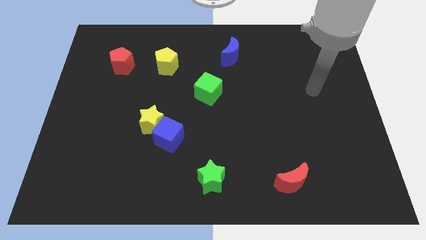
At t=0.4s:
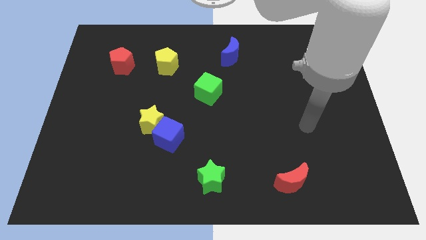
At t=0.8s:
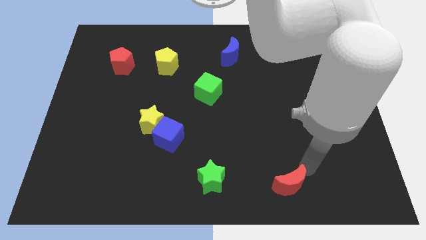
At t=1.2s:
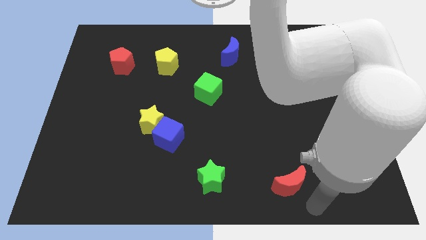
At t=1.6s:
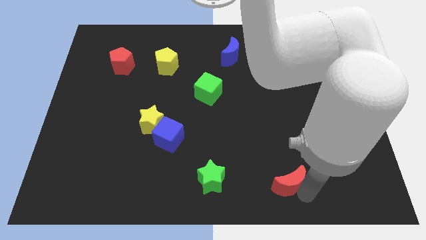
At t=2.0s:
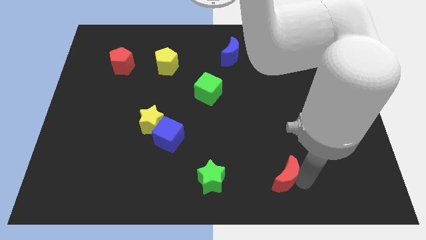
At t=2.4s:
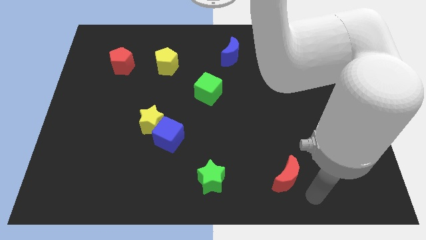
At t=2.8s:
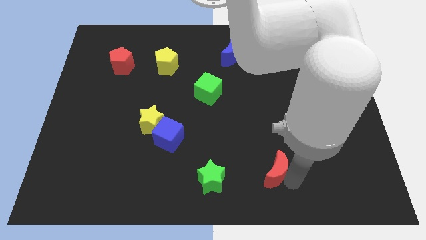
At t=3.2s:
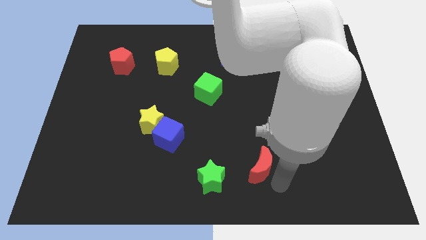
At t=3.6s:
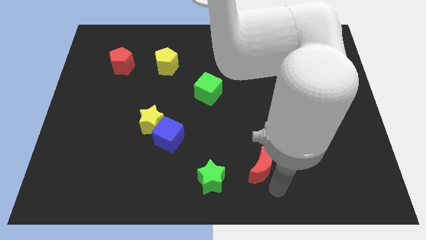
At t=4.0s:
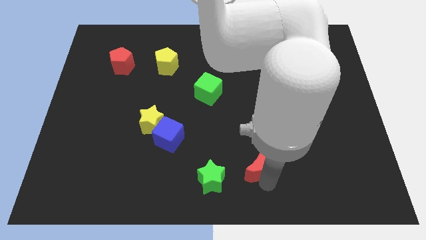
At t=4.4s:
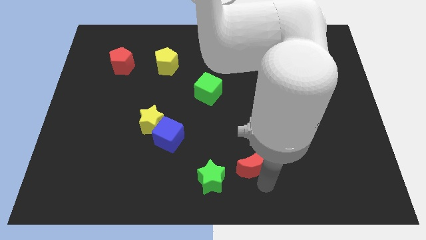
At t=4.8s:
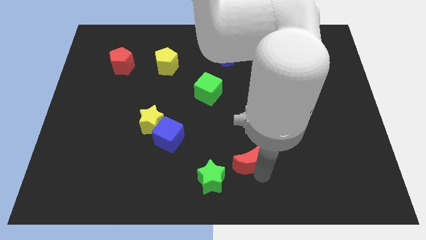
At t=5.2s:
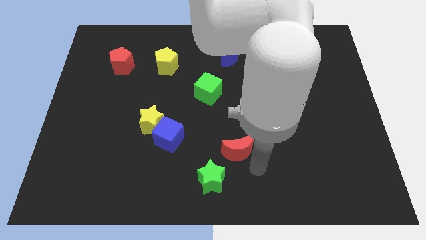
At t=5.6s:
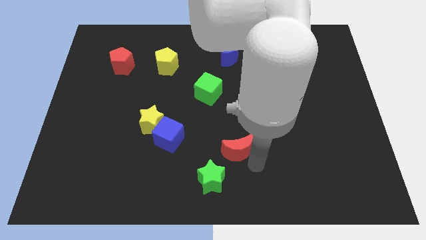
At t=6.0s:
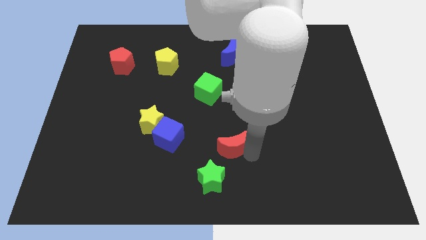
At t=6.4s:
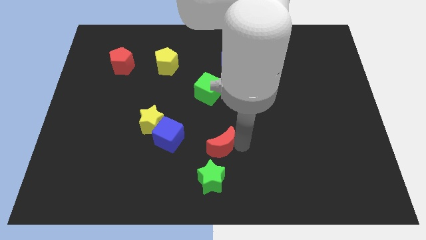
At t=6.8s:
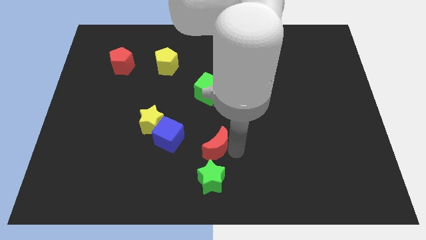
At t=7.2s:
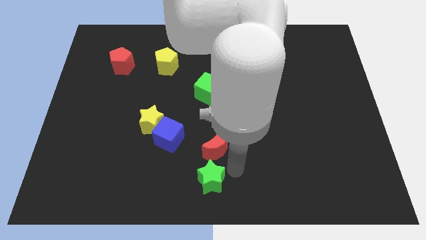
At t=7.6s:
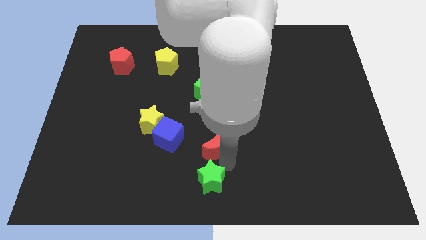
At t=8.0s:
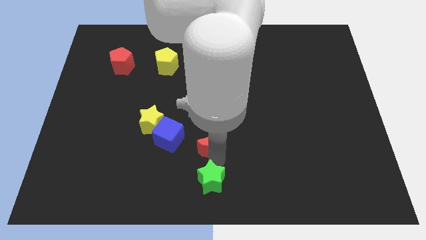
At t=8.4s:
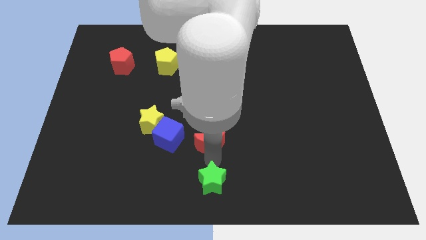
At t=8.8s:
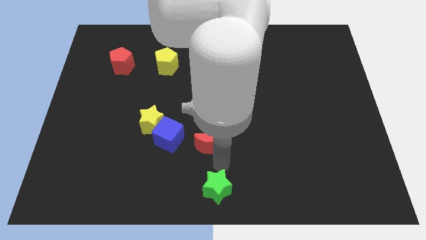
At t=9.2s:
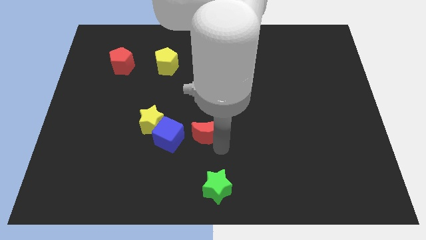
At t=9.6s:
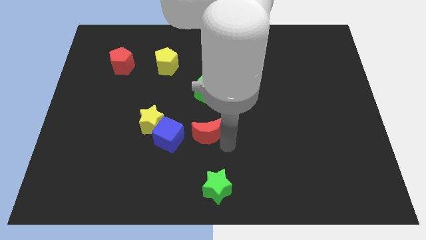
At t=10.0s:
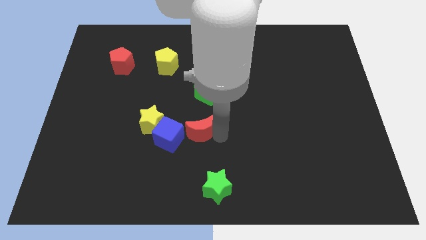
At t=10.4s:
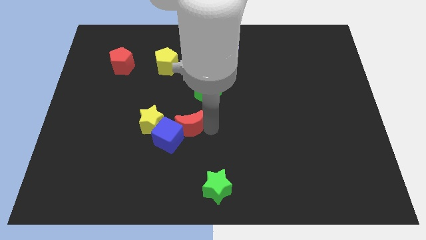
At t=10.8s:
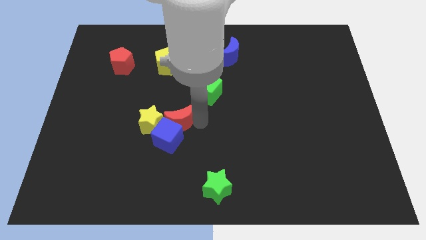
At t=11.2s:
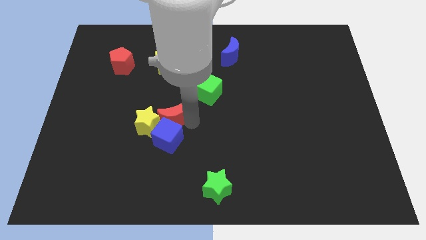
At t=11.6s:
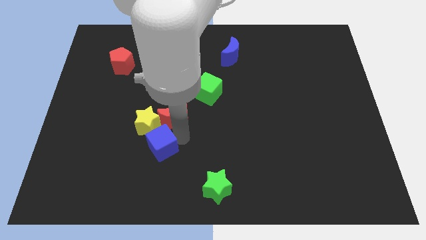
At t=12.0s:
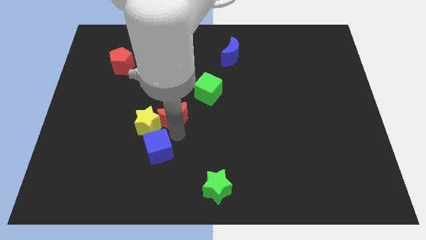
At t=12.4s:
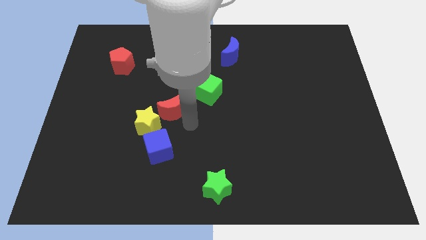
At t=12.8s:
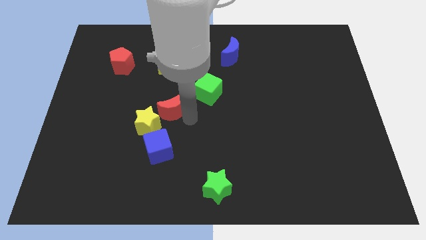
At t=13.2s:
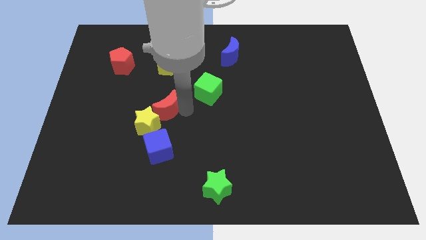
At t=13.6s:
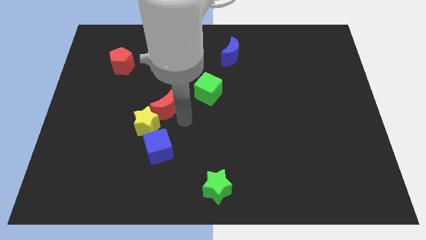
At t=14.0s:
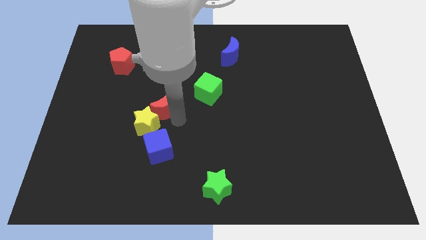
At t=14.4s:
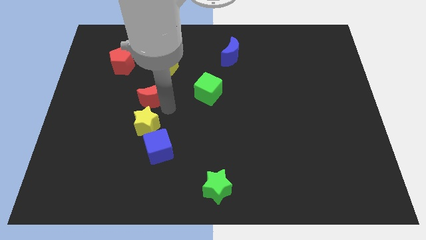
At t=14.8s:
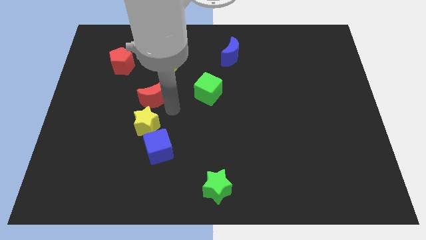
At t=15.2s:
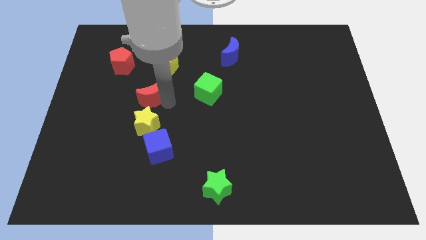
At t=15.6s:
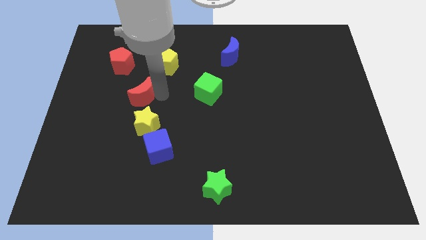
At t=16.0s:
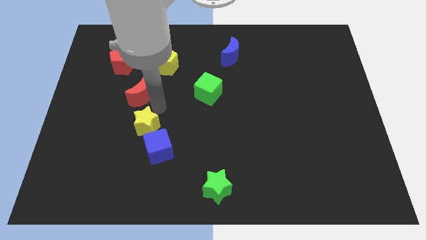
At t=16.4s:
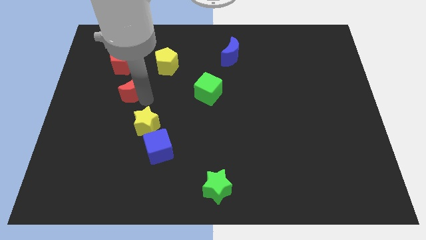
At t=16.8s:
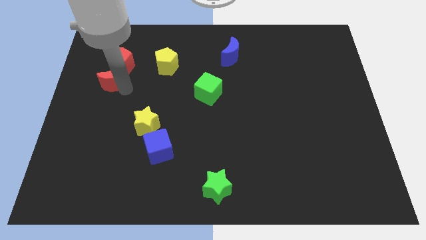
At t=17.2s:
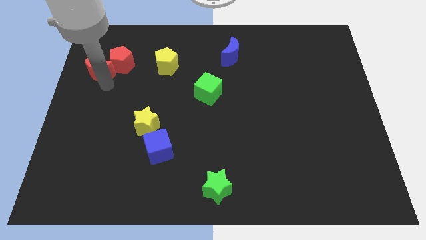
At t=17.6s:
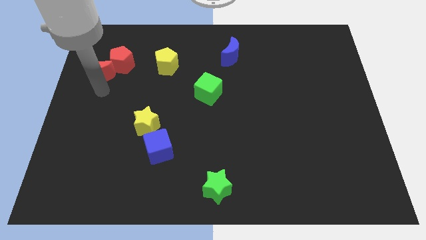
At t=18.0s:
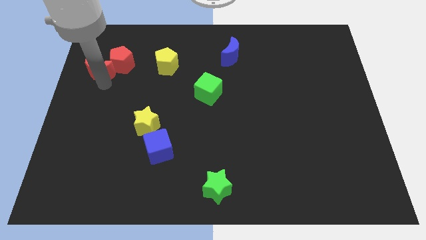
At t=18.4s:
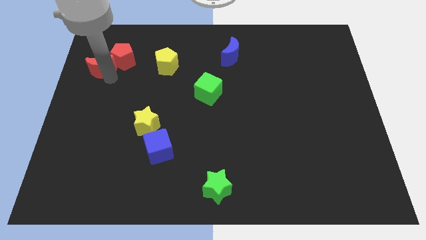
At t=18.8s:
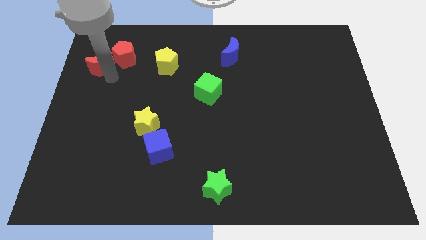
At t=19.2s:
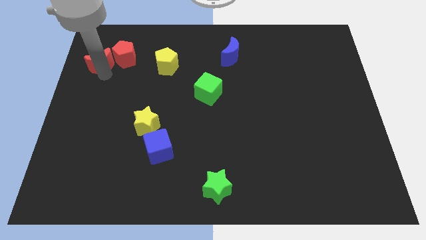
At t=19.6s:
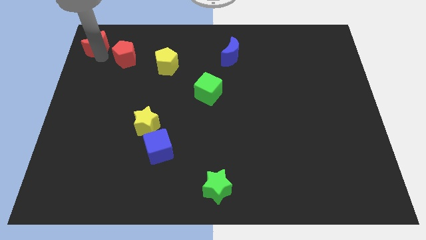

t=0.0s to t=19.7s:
move the red moon to the top left corner

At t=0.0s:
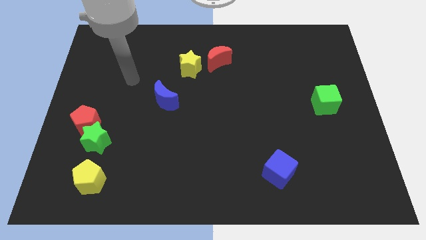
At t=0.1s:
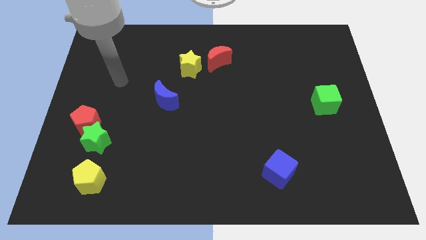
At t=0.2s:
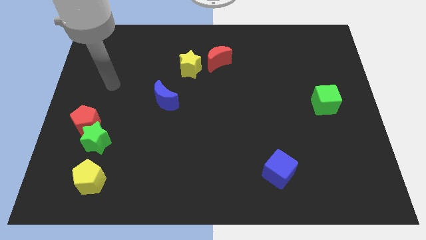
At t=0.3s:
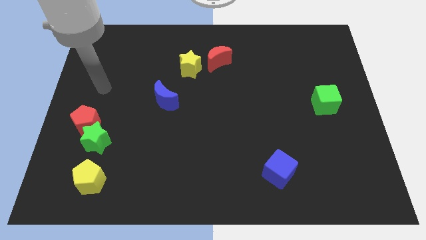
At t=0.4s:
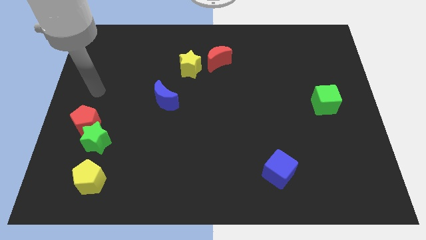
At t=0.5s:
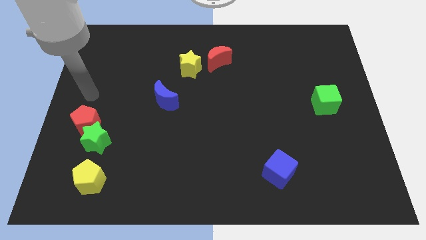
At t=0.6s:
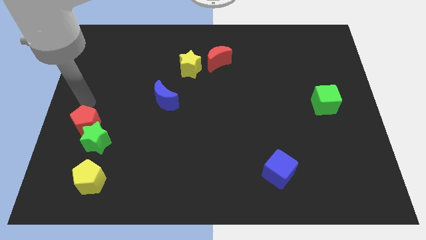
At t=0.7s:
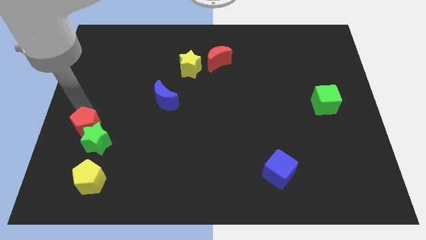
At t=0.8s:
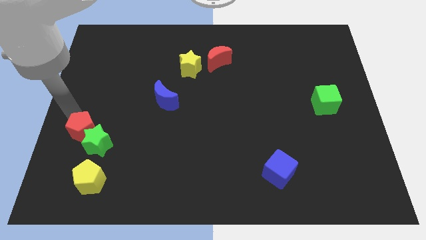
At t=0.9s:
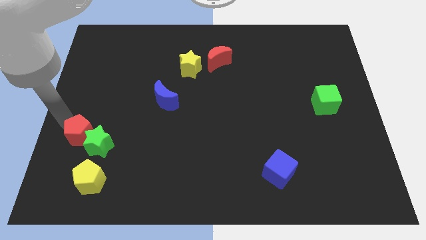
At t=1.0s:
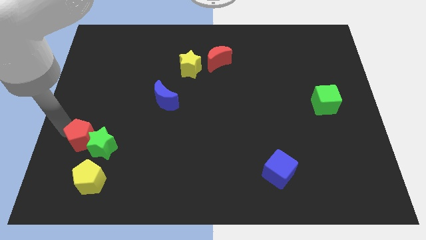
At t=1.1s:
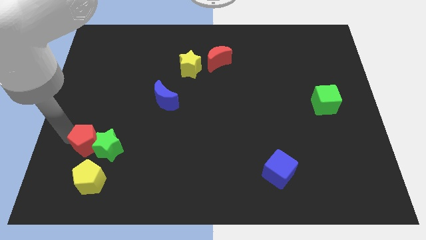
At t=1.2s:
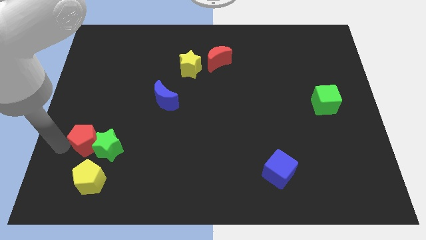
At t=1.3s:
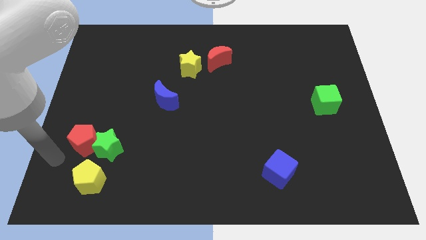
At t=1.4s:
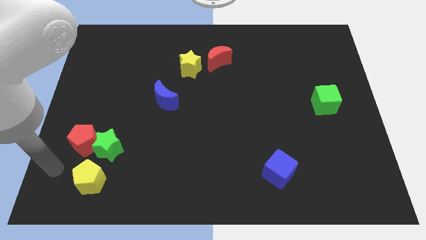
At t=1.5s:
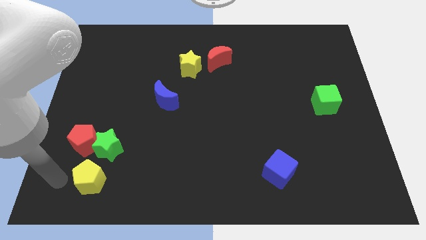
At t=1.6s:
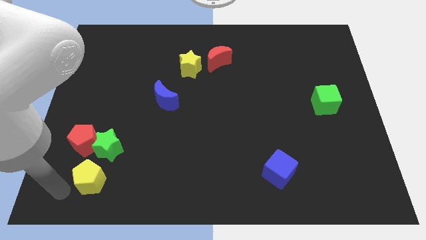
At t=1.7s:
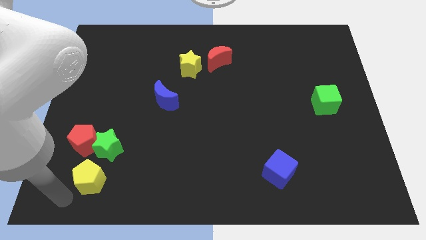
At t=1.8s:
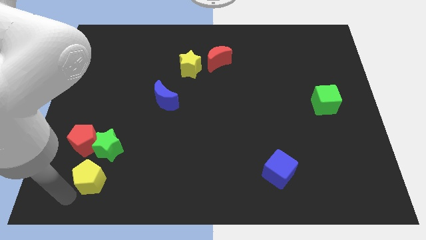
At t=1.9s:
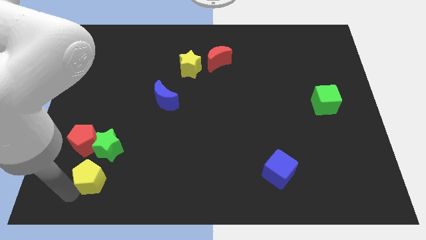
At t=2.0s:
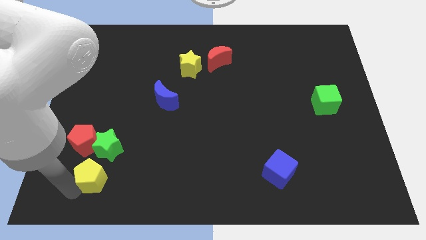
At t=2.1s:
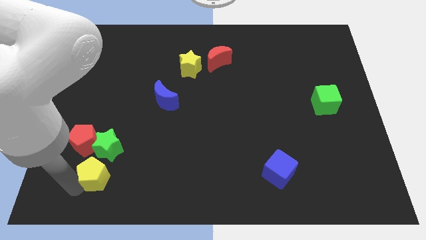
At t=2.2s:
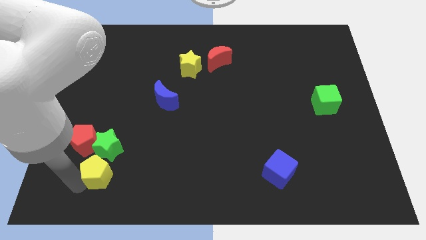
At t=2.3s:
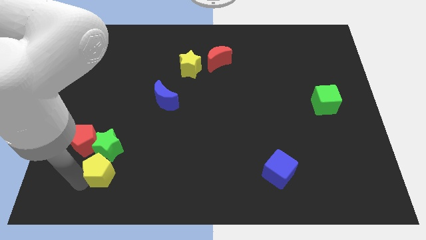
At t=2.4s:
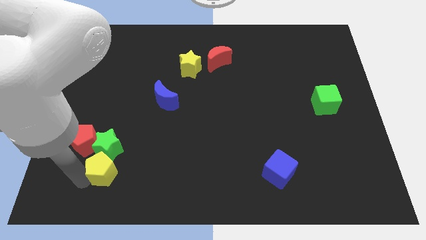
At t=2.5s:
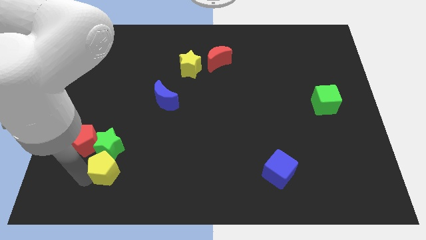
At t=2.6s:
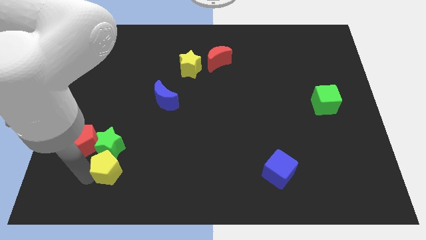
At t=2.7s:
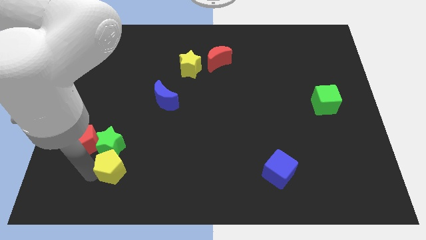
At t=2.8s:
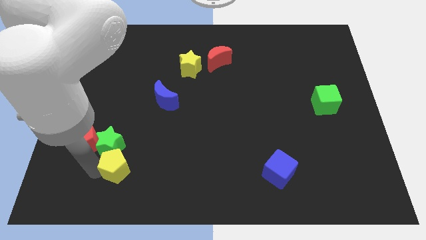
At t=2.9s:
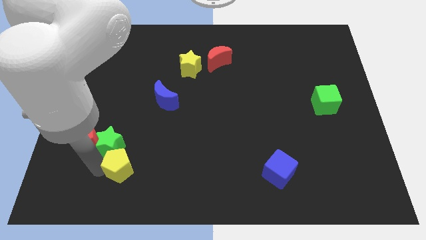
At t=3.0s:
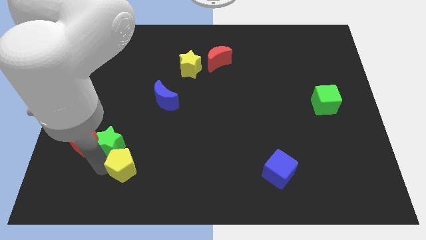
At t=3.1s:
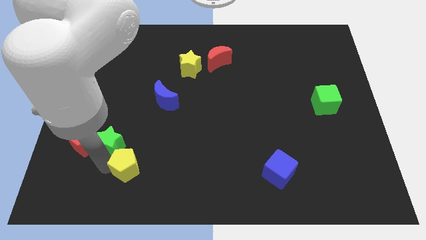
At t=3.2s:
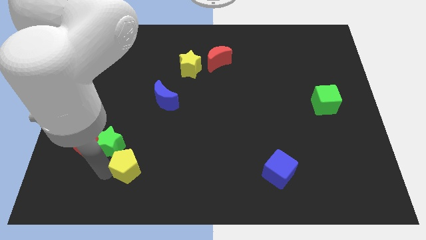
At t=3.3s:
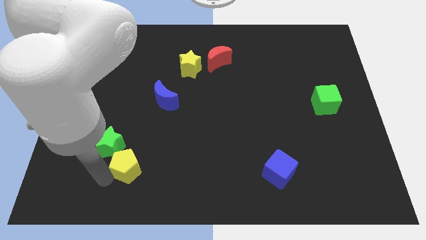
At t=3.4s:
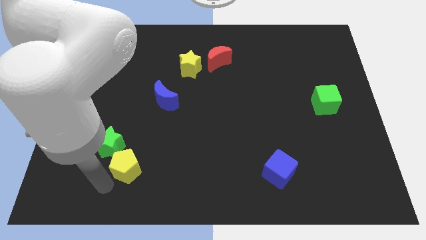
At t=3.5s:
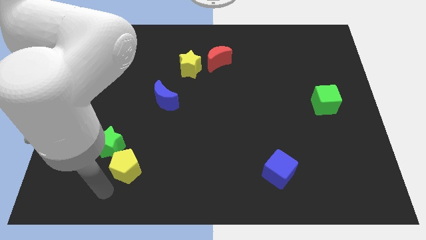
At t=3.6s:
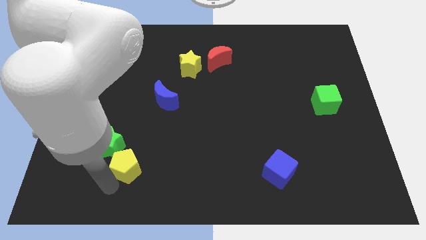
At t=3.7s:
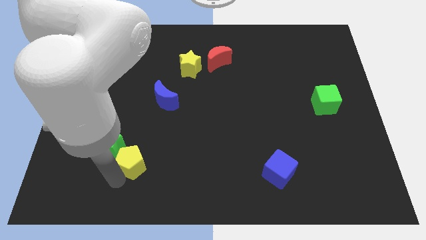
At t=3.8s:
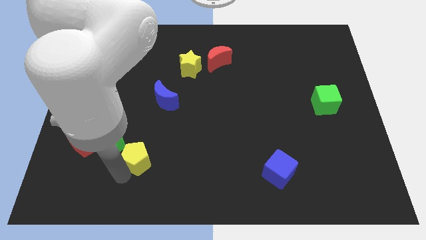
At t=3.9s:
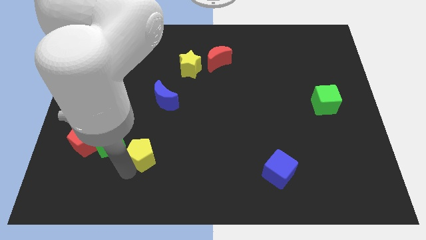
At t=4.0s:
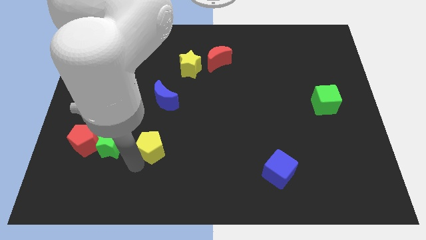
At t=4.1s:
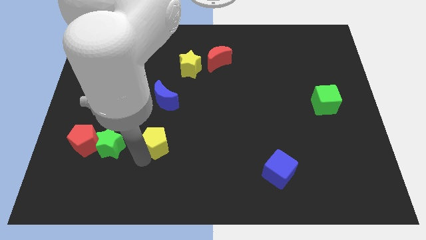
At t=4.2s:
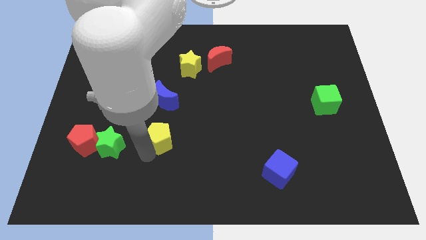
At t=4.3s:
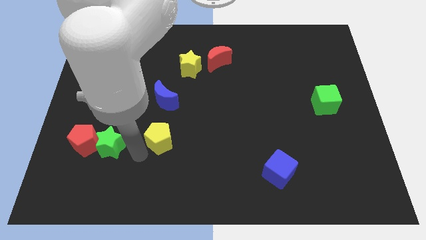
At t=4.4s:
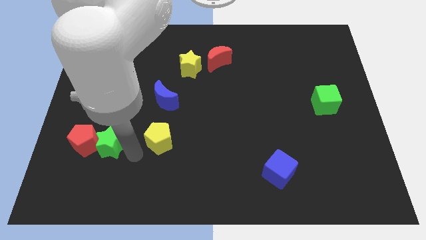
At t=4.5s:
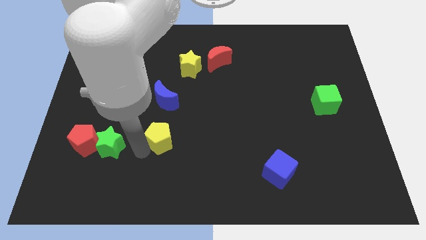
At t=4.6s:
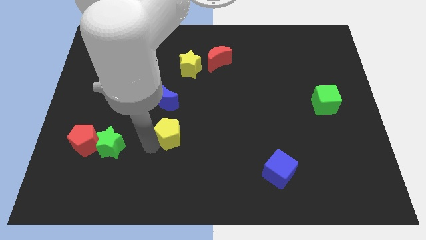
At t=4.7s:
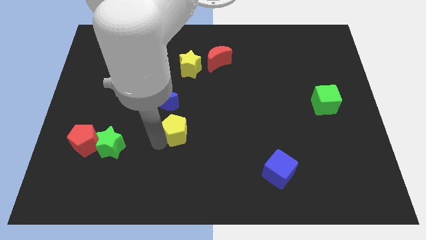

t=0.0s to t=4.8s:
put the yellow pentagon to the center
